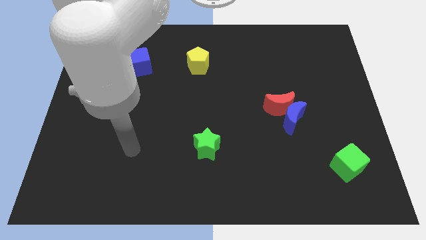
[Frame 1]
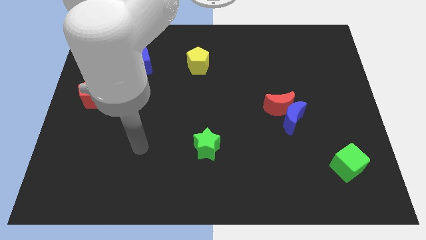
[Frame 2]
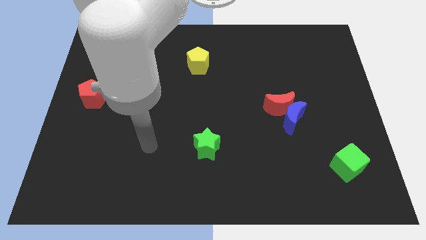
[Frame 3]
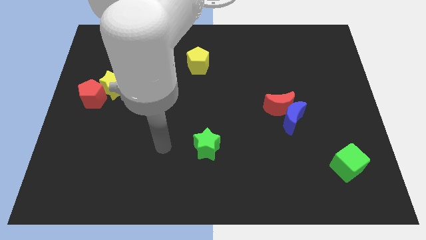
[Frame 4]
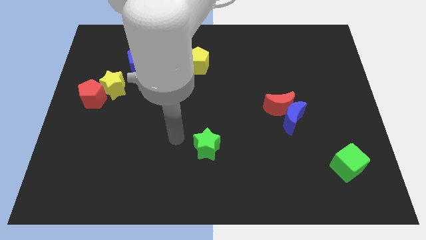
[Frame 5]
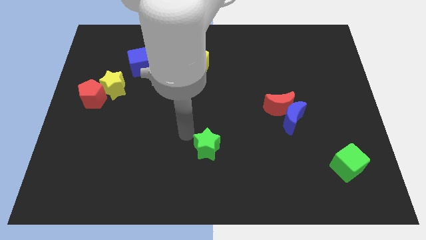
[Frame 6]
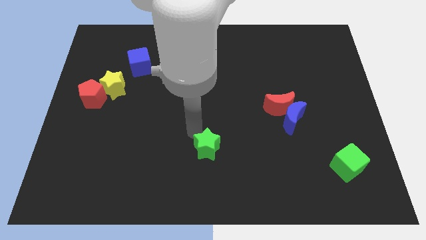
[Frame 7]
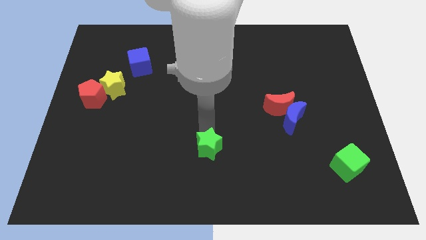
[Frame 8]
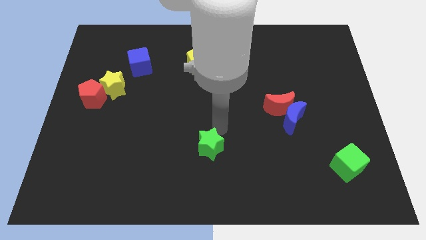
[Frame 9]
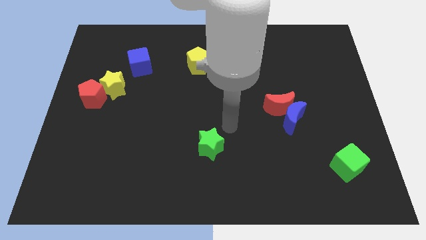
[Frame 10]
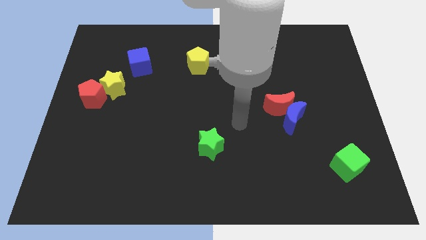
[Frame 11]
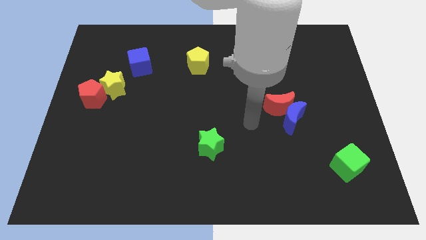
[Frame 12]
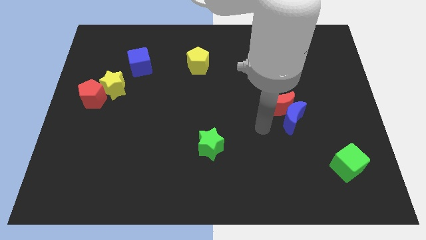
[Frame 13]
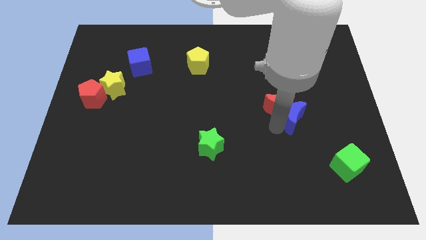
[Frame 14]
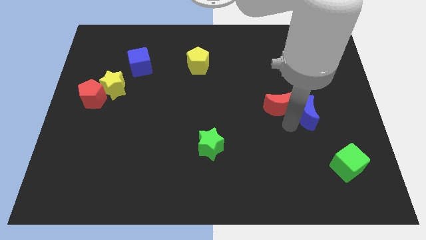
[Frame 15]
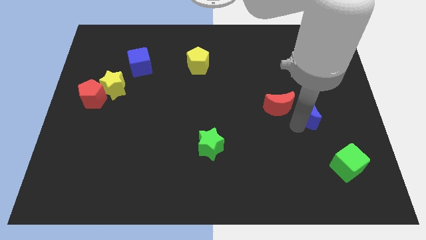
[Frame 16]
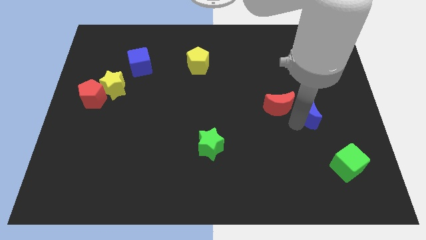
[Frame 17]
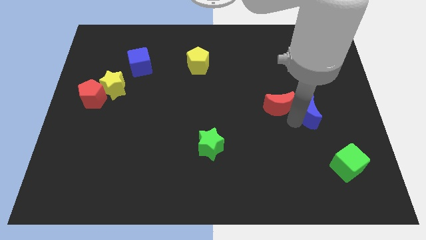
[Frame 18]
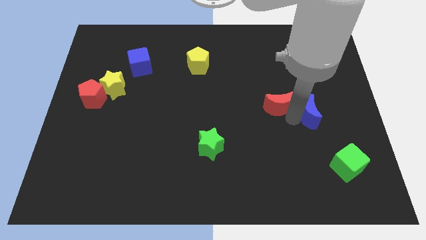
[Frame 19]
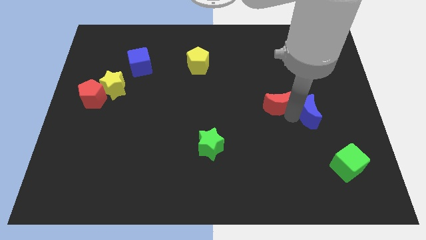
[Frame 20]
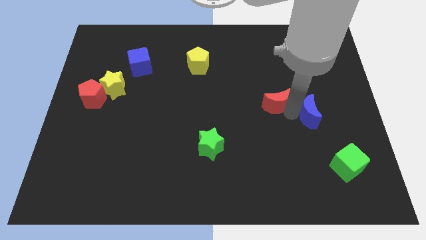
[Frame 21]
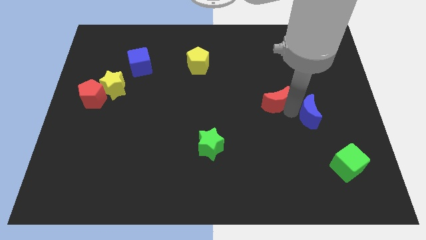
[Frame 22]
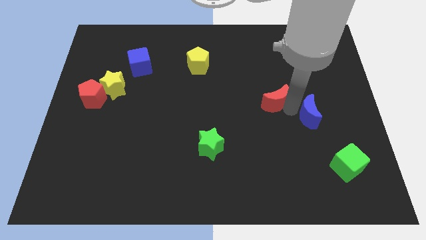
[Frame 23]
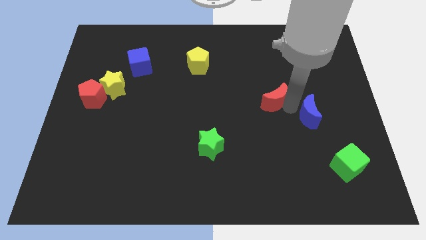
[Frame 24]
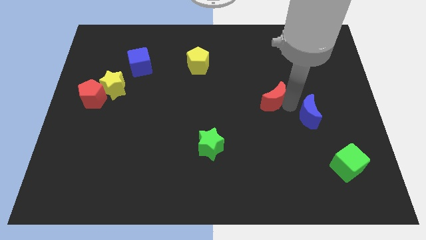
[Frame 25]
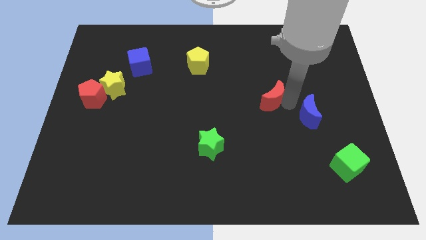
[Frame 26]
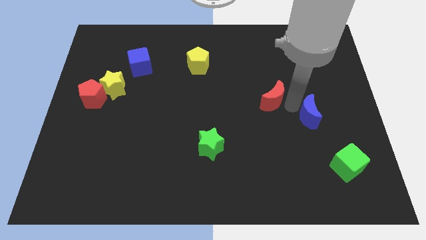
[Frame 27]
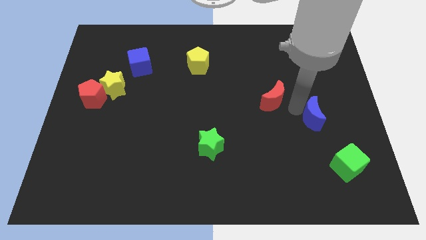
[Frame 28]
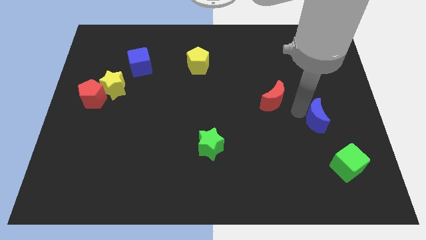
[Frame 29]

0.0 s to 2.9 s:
pull the red moon apart from the blue moon

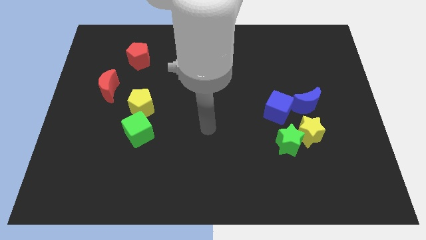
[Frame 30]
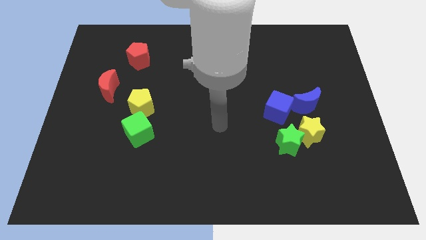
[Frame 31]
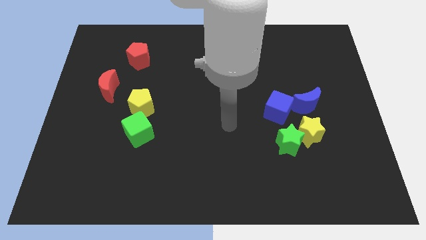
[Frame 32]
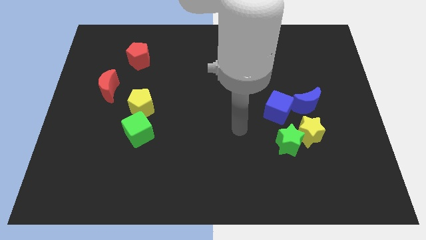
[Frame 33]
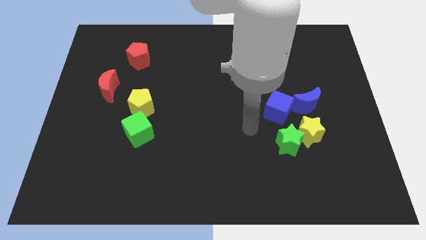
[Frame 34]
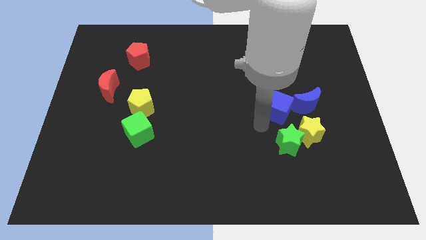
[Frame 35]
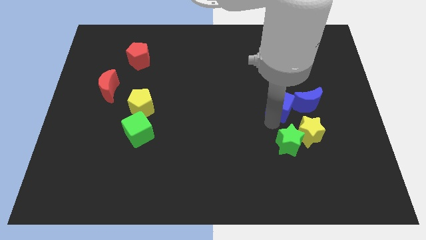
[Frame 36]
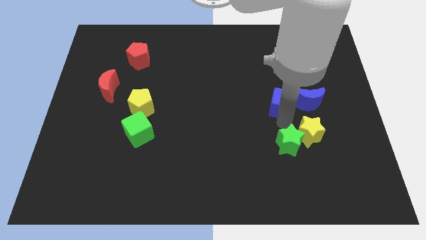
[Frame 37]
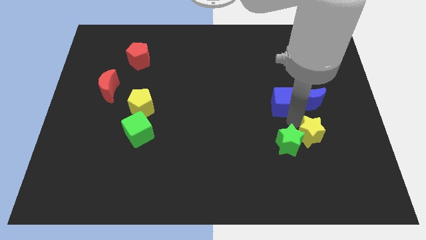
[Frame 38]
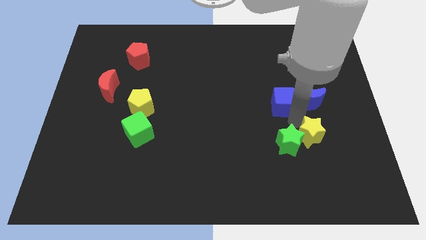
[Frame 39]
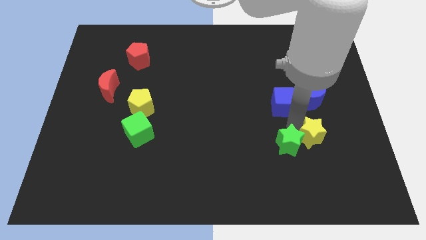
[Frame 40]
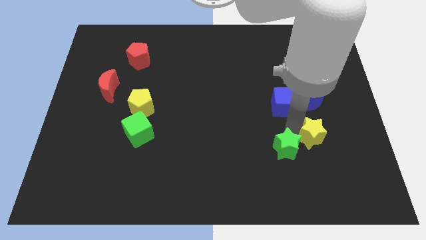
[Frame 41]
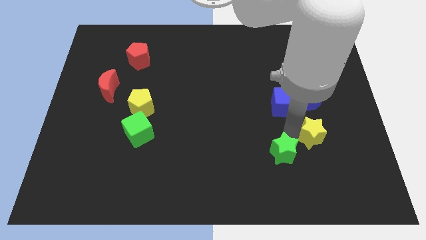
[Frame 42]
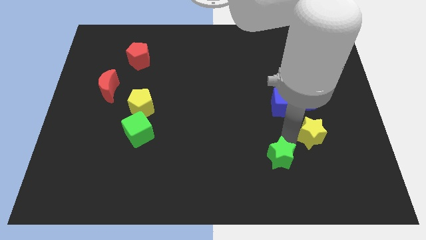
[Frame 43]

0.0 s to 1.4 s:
separate the green star from the yellow star and blue cube

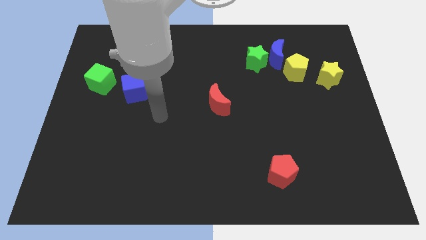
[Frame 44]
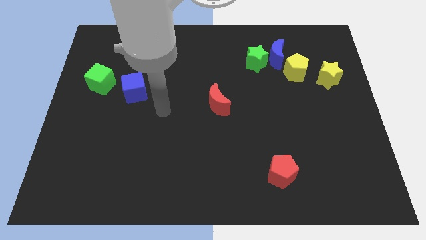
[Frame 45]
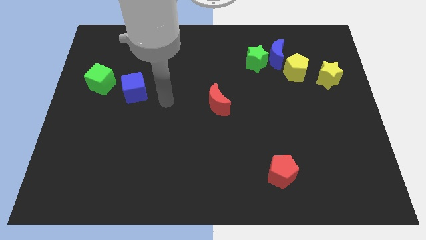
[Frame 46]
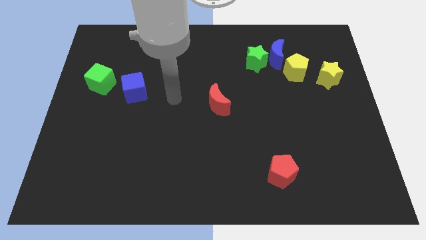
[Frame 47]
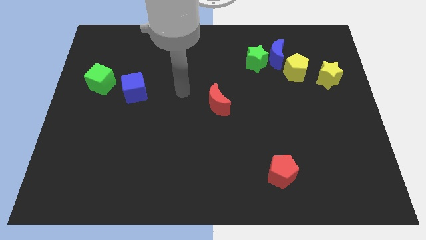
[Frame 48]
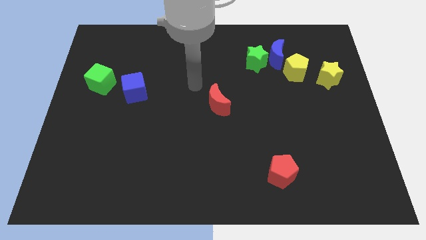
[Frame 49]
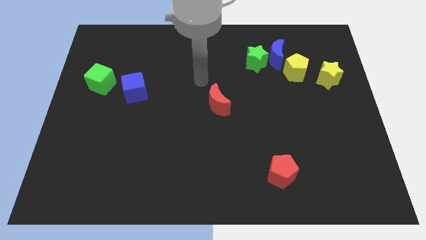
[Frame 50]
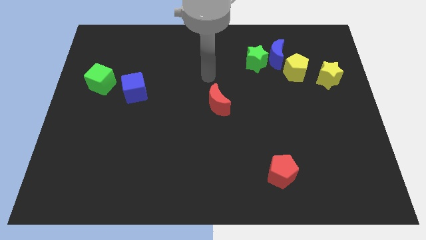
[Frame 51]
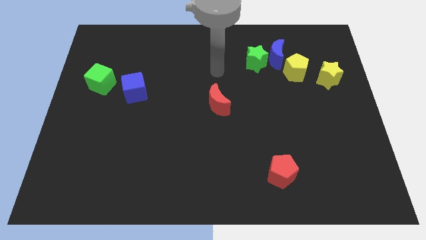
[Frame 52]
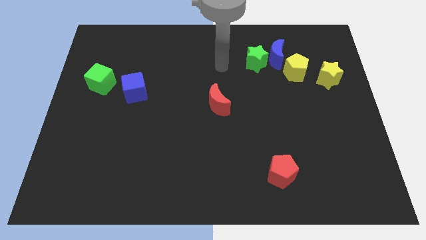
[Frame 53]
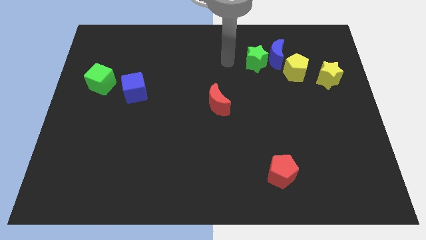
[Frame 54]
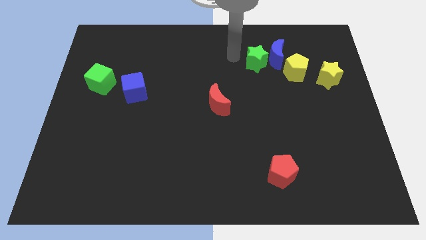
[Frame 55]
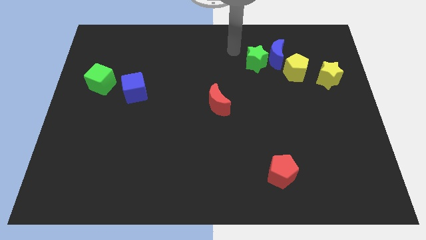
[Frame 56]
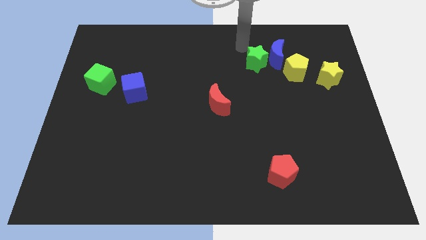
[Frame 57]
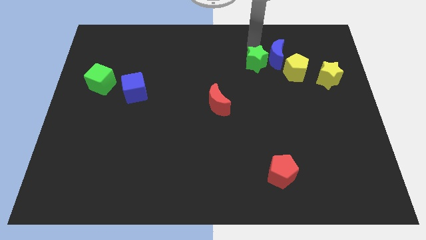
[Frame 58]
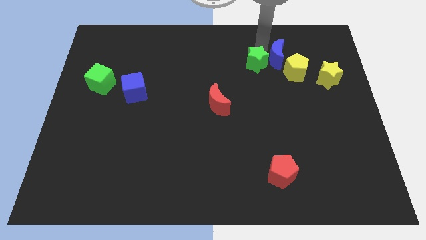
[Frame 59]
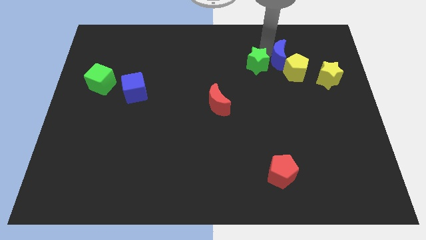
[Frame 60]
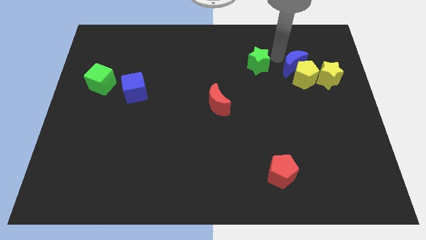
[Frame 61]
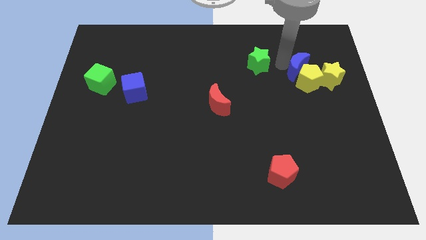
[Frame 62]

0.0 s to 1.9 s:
separate the green star from the blue moon

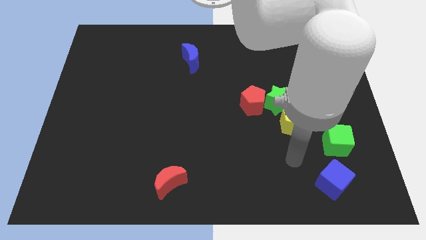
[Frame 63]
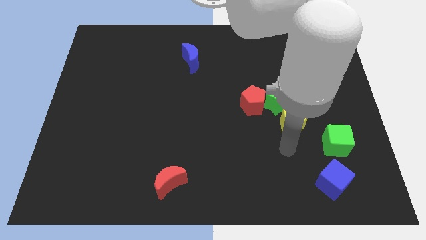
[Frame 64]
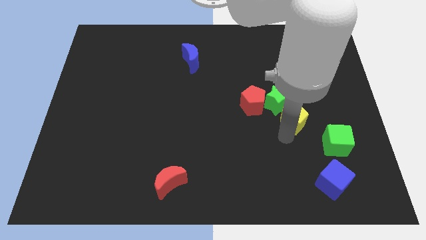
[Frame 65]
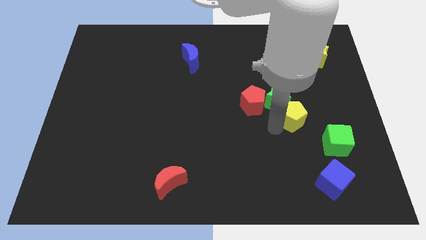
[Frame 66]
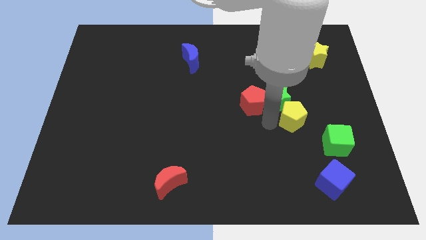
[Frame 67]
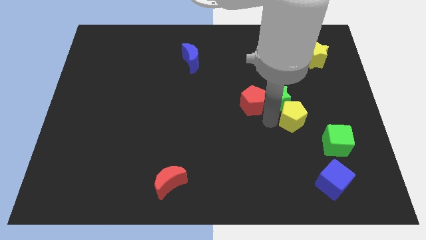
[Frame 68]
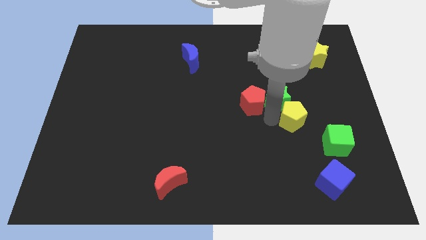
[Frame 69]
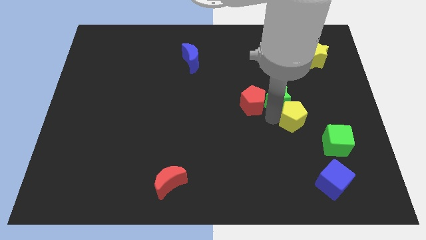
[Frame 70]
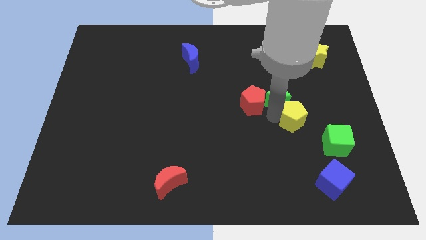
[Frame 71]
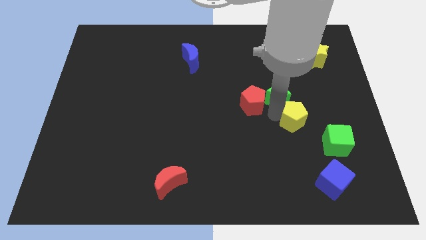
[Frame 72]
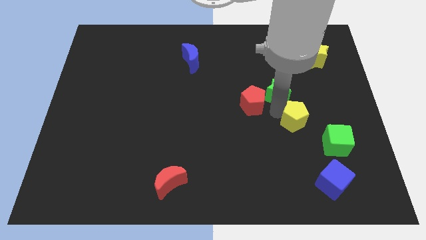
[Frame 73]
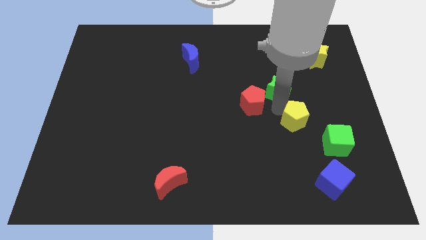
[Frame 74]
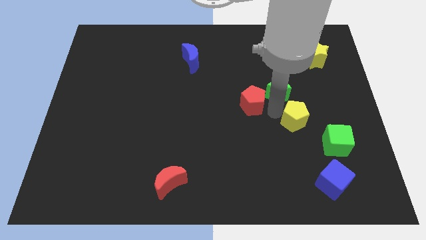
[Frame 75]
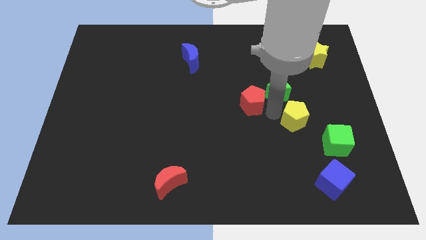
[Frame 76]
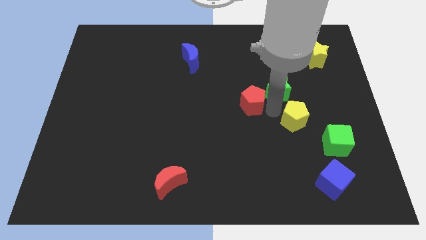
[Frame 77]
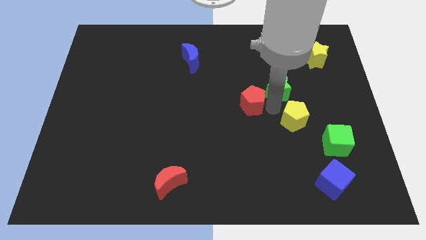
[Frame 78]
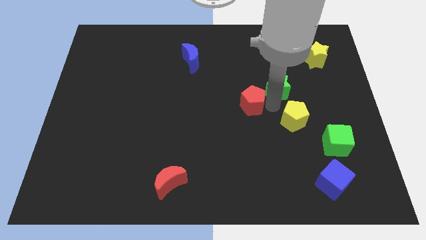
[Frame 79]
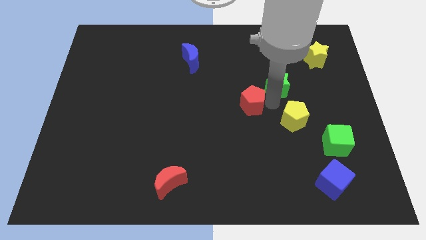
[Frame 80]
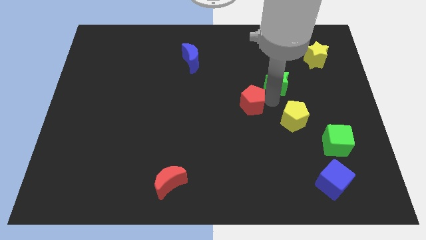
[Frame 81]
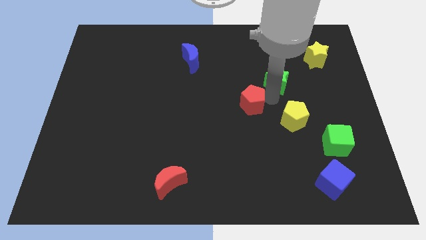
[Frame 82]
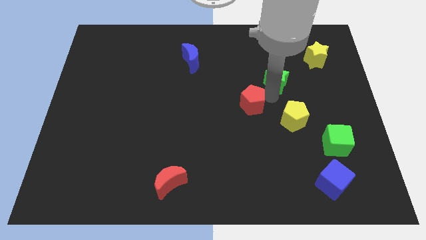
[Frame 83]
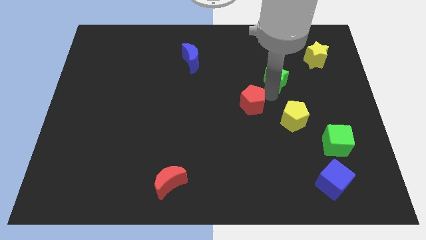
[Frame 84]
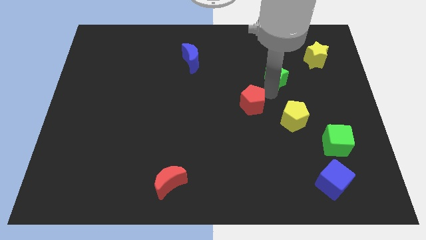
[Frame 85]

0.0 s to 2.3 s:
pull the green star apart from the red pentagon and yellow pentagon

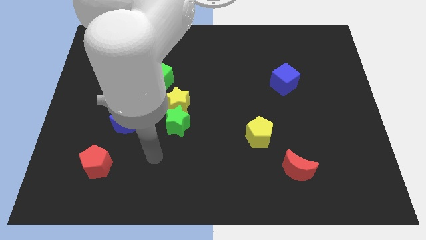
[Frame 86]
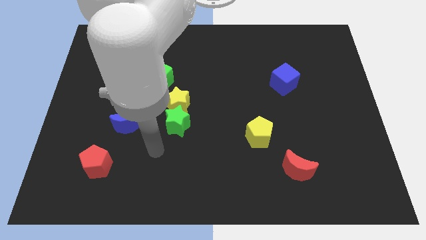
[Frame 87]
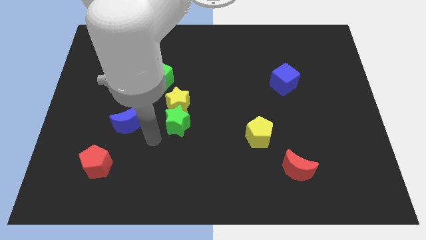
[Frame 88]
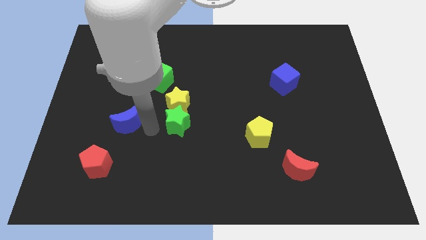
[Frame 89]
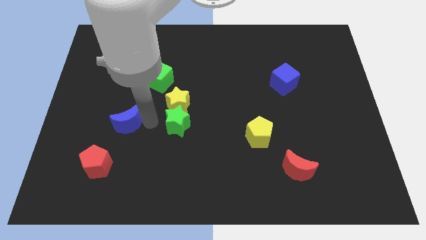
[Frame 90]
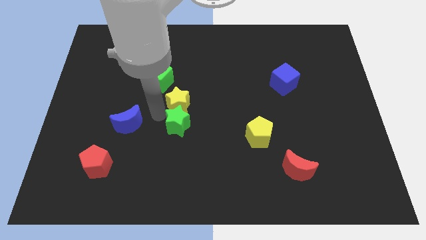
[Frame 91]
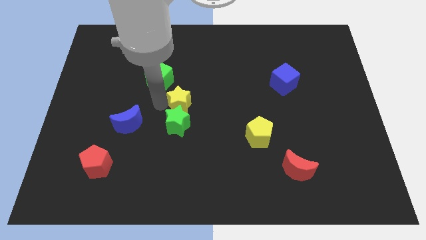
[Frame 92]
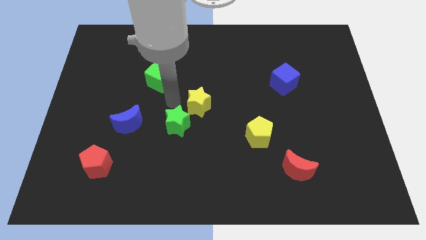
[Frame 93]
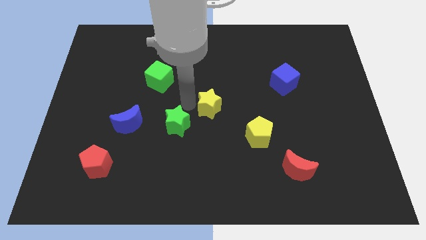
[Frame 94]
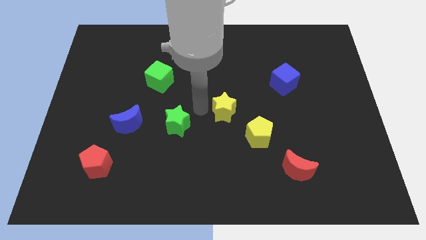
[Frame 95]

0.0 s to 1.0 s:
pull the green star apart from the yellow star
